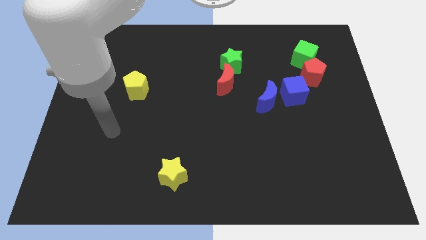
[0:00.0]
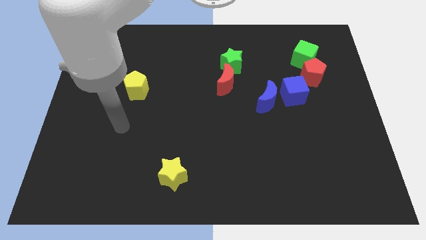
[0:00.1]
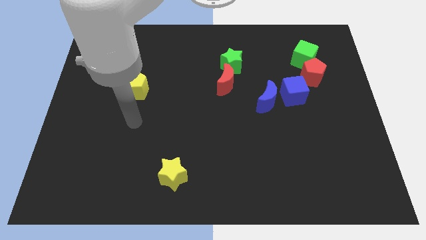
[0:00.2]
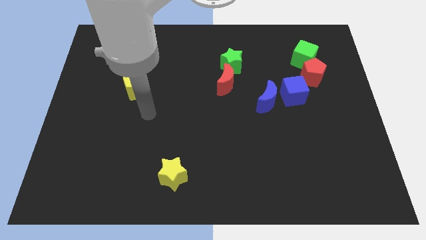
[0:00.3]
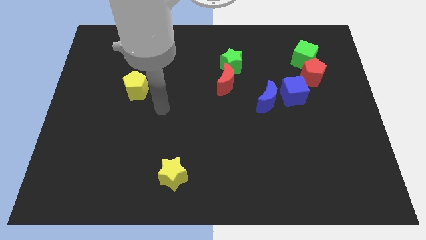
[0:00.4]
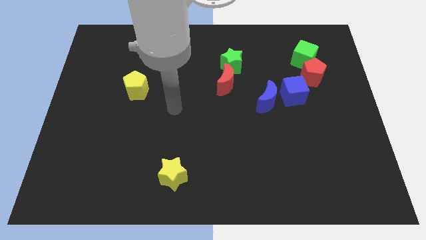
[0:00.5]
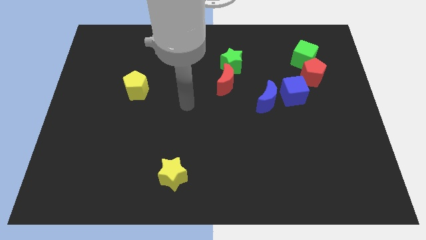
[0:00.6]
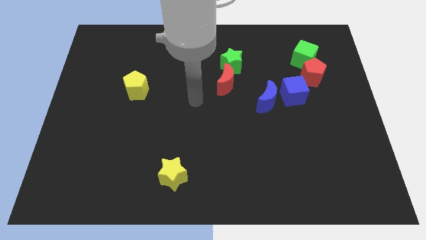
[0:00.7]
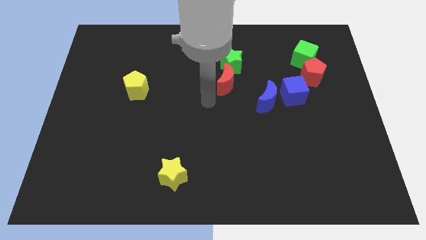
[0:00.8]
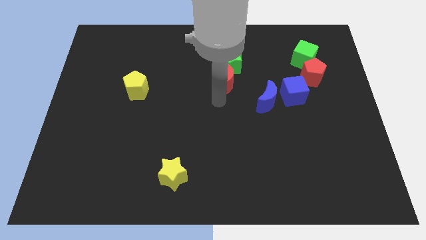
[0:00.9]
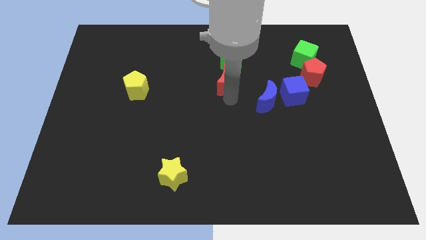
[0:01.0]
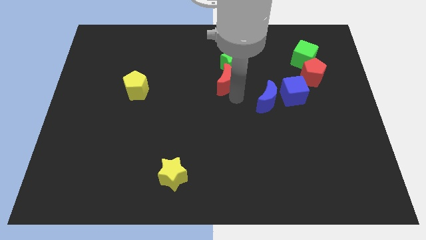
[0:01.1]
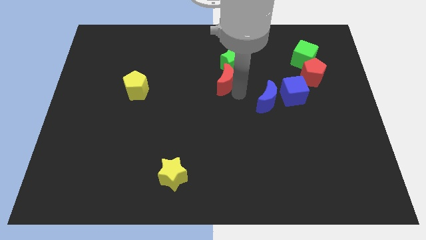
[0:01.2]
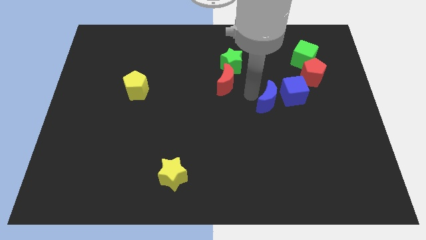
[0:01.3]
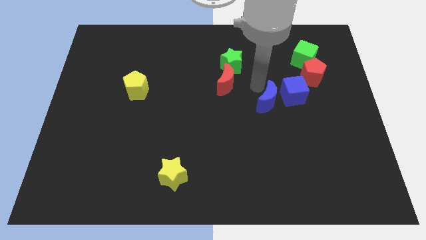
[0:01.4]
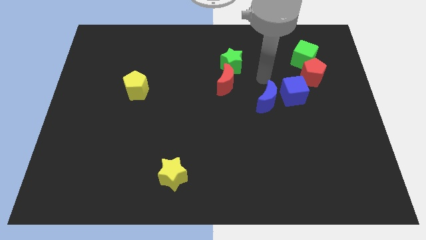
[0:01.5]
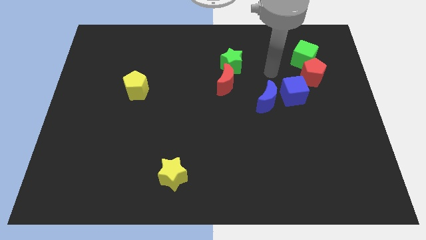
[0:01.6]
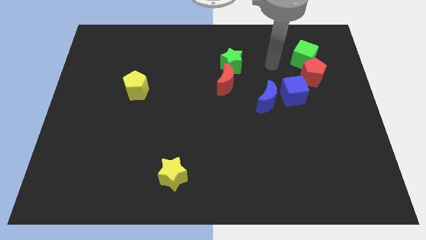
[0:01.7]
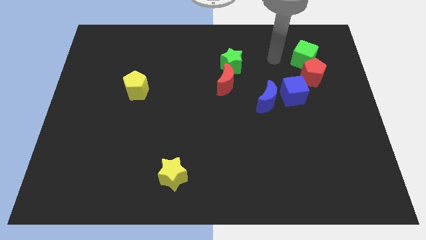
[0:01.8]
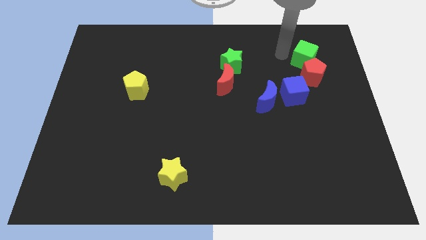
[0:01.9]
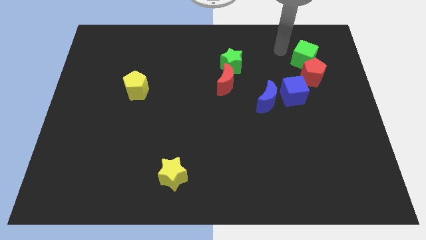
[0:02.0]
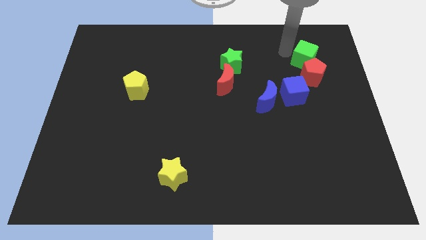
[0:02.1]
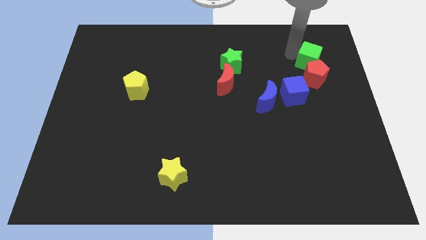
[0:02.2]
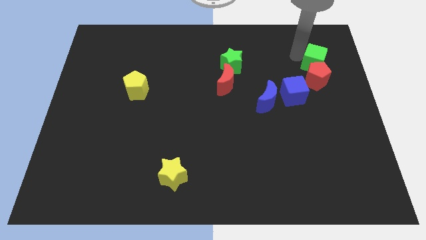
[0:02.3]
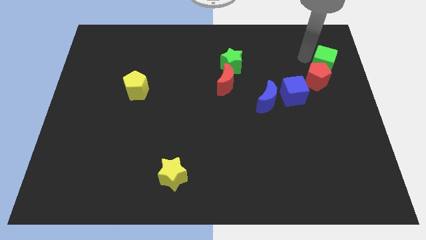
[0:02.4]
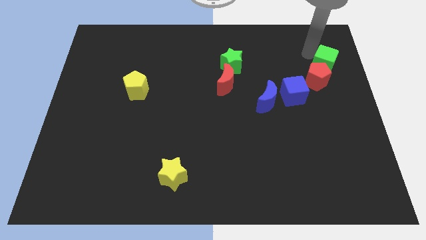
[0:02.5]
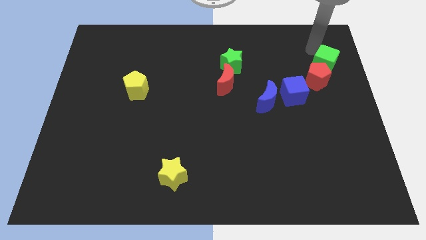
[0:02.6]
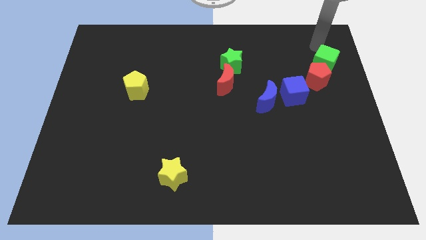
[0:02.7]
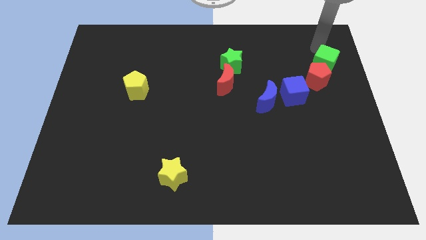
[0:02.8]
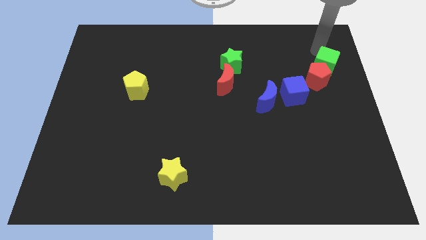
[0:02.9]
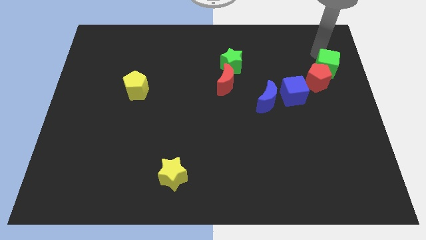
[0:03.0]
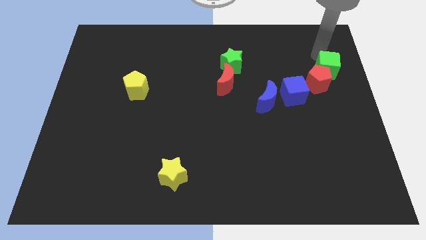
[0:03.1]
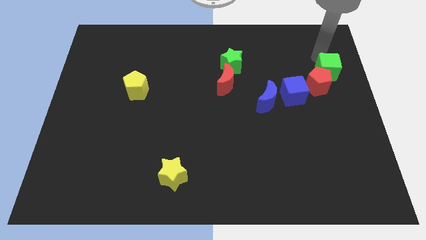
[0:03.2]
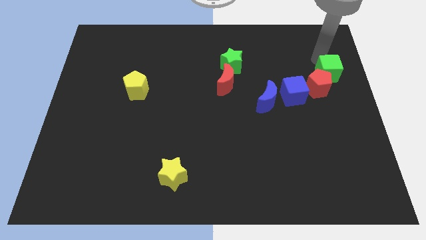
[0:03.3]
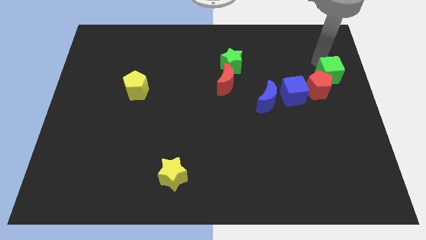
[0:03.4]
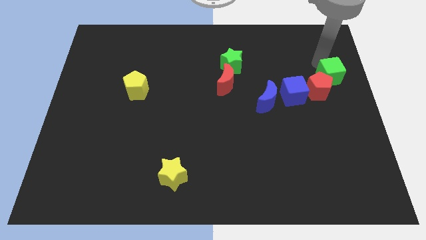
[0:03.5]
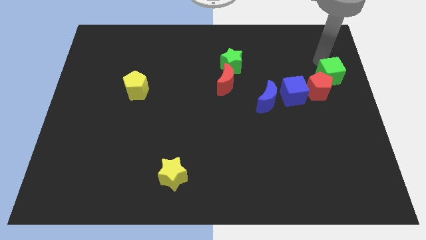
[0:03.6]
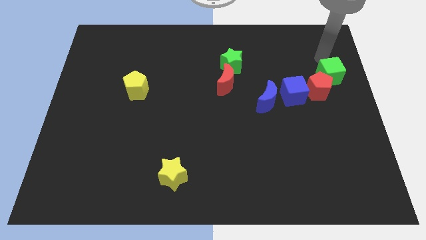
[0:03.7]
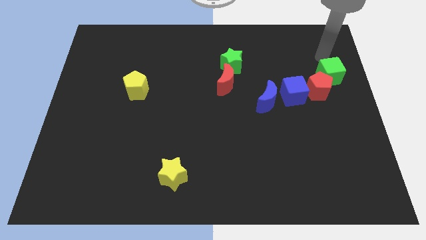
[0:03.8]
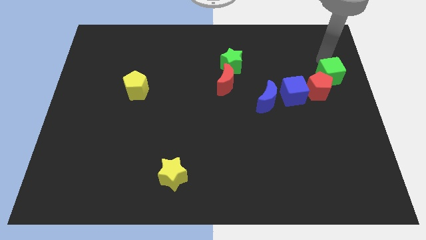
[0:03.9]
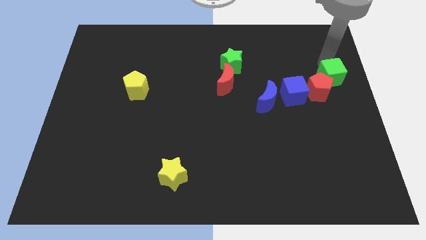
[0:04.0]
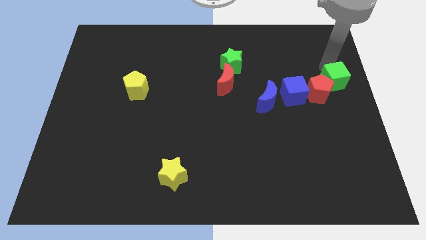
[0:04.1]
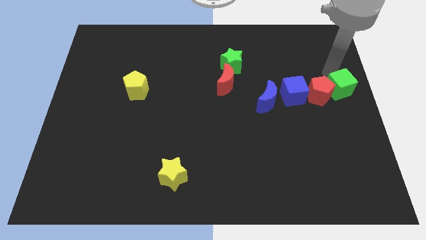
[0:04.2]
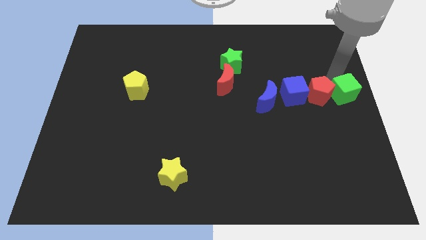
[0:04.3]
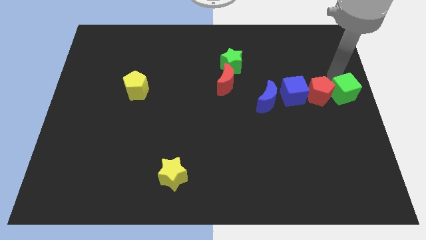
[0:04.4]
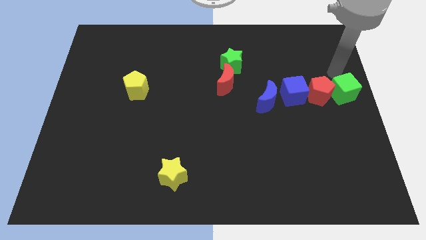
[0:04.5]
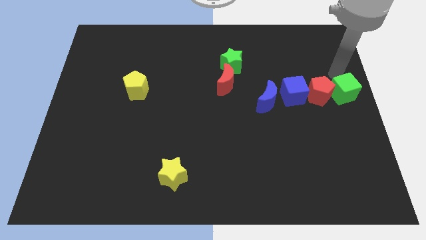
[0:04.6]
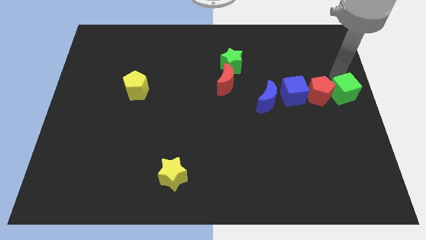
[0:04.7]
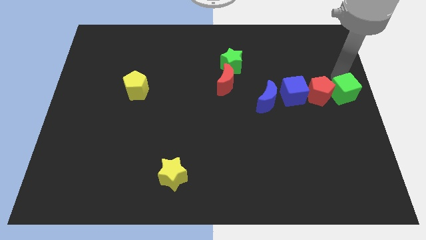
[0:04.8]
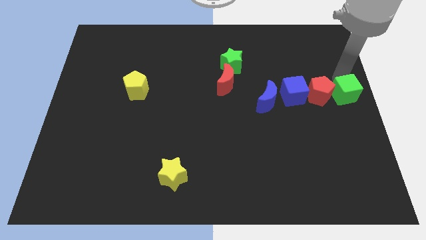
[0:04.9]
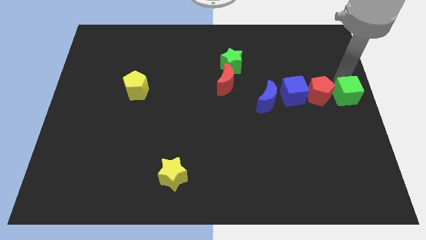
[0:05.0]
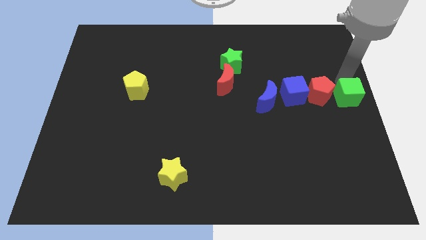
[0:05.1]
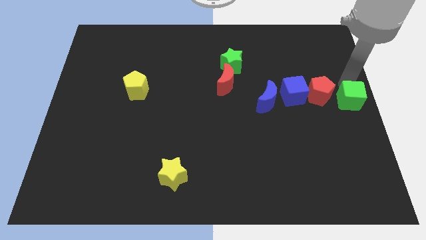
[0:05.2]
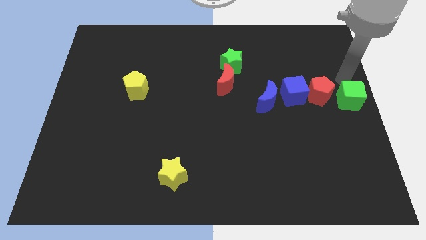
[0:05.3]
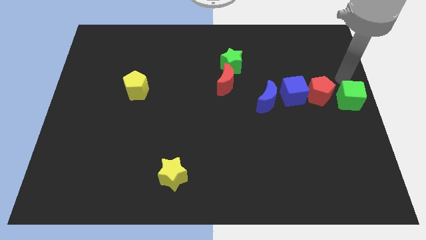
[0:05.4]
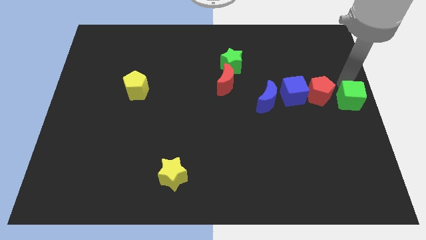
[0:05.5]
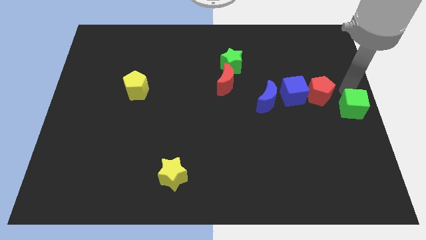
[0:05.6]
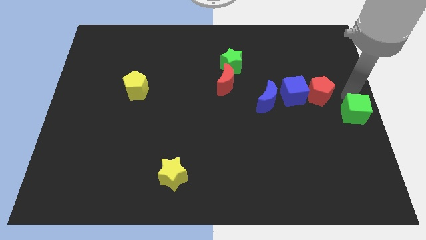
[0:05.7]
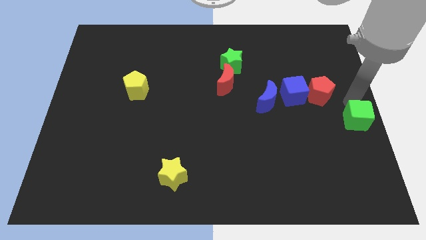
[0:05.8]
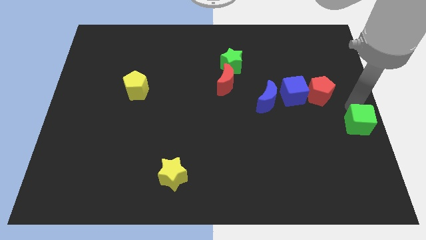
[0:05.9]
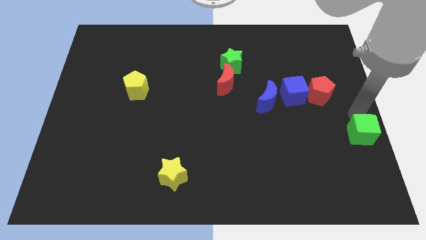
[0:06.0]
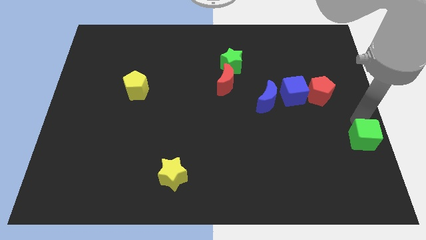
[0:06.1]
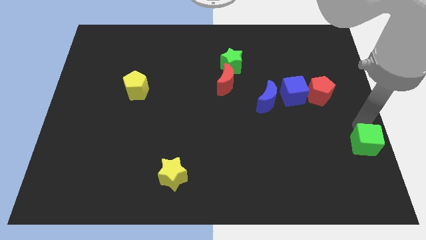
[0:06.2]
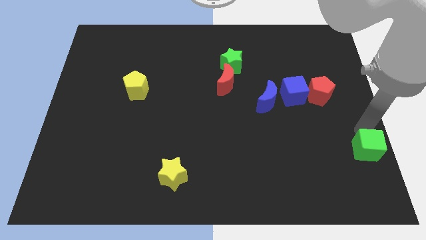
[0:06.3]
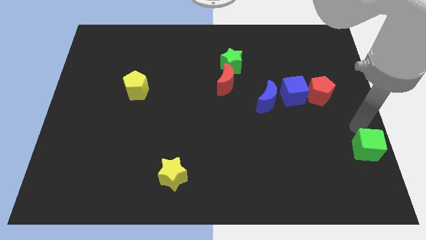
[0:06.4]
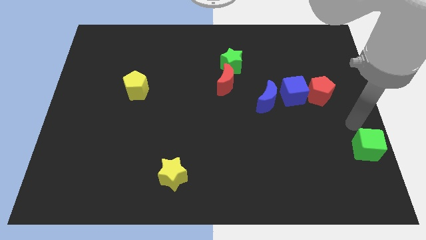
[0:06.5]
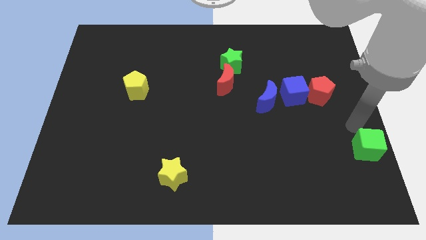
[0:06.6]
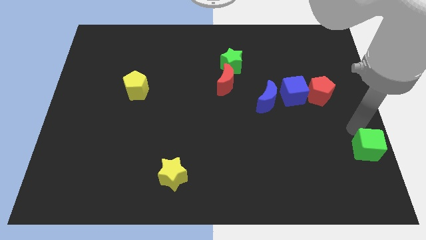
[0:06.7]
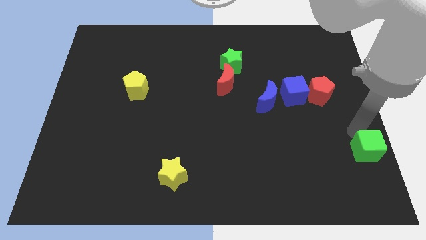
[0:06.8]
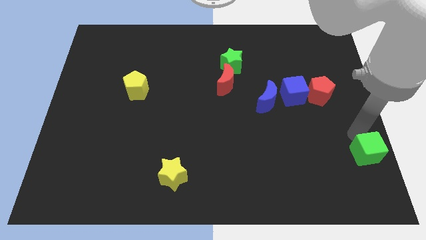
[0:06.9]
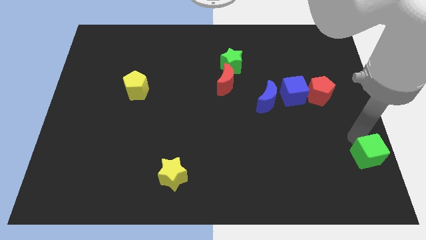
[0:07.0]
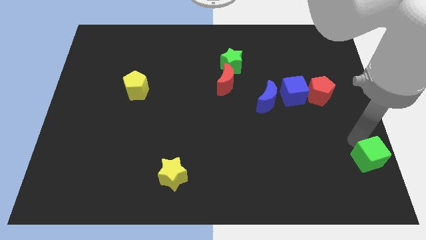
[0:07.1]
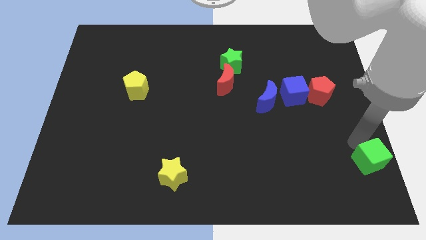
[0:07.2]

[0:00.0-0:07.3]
slide the green cube to the lower right corner
